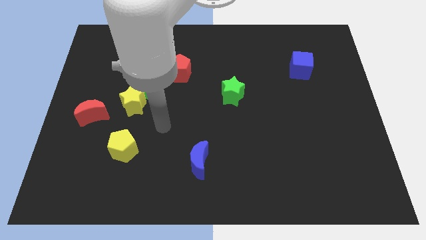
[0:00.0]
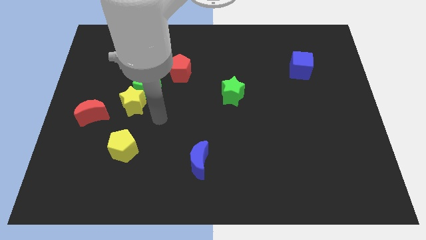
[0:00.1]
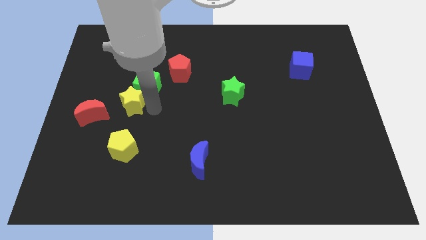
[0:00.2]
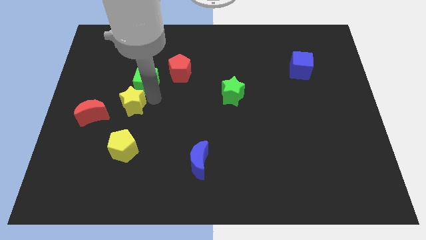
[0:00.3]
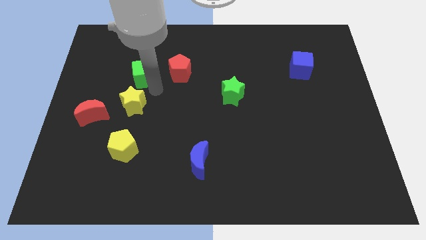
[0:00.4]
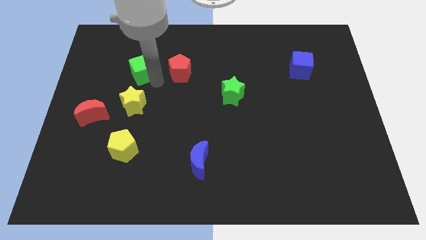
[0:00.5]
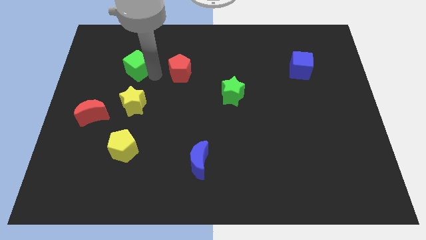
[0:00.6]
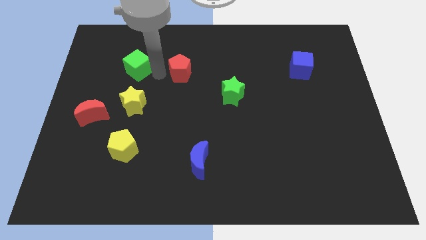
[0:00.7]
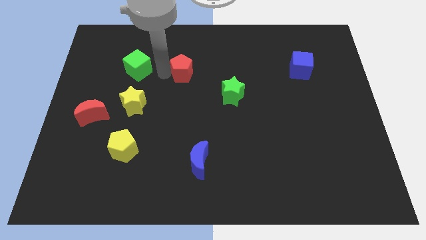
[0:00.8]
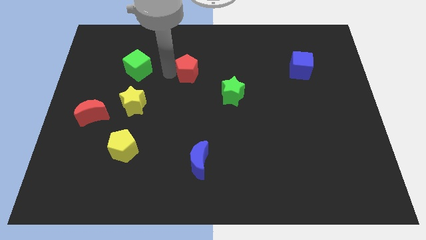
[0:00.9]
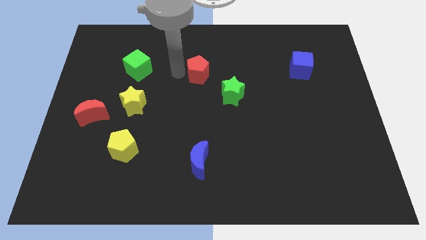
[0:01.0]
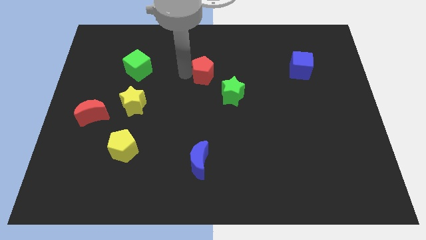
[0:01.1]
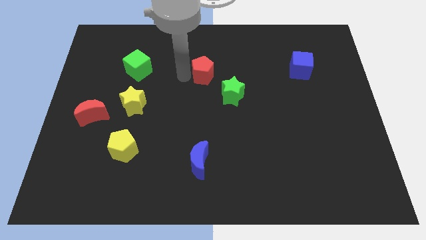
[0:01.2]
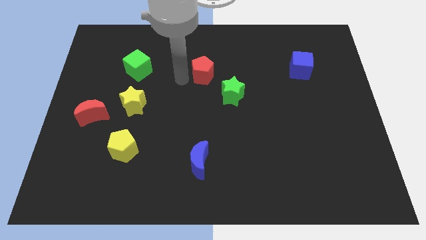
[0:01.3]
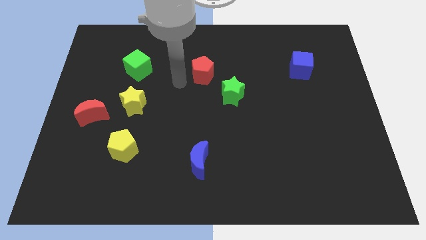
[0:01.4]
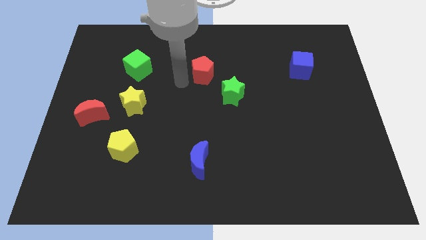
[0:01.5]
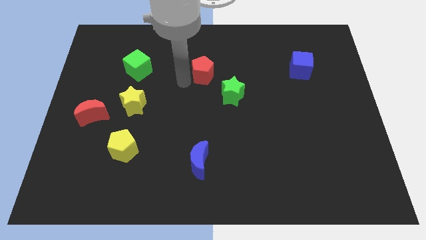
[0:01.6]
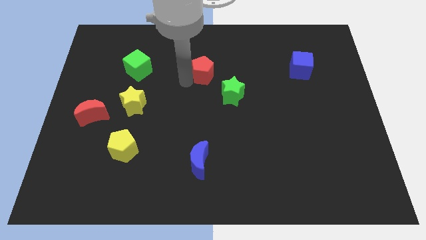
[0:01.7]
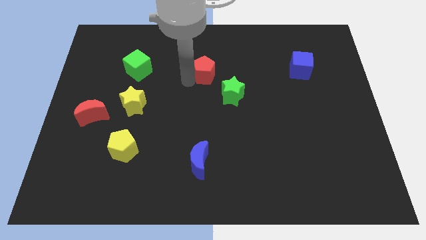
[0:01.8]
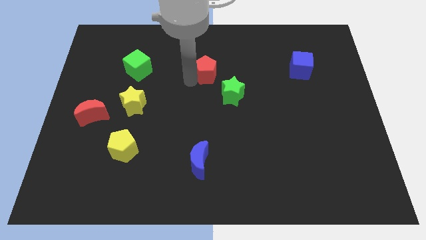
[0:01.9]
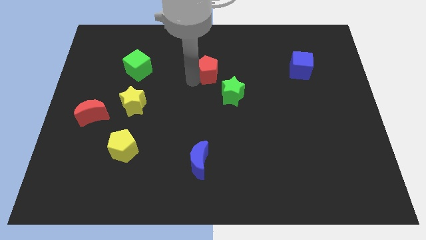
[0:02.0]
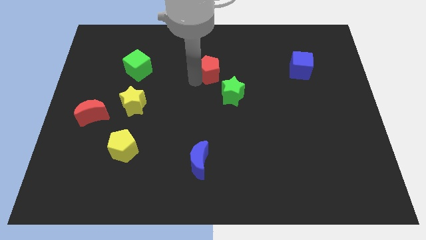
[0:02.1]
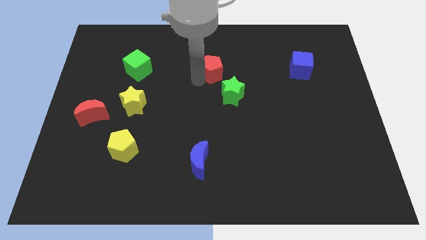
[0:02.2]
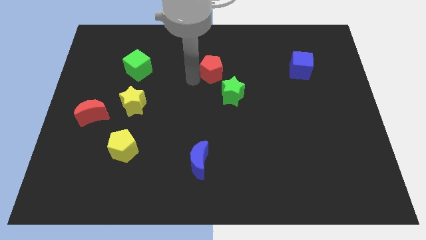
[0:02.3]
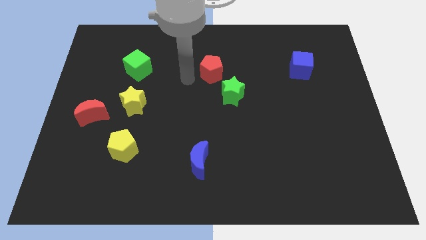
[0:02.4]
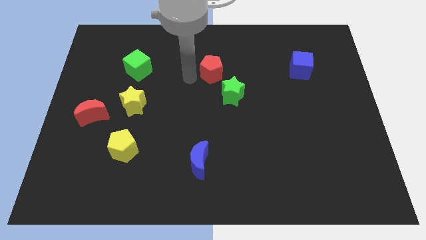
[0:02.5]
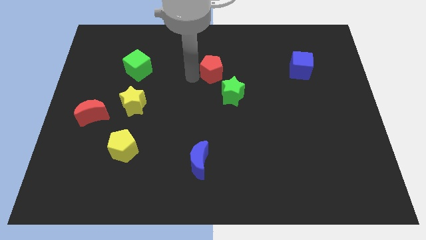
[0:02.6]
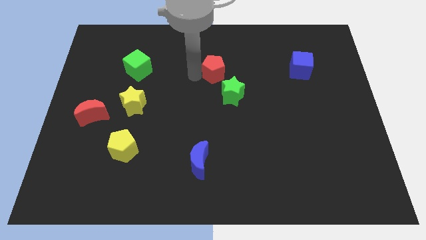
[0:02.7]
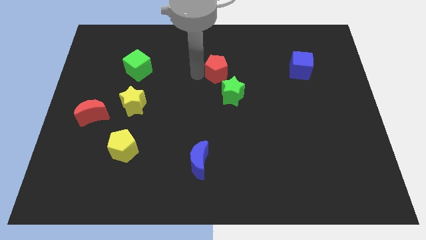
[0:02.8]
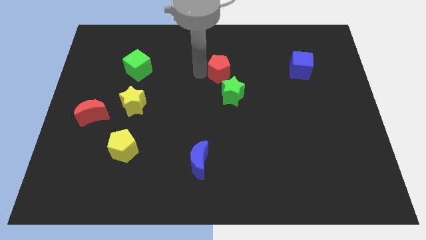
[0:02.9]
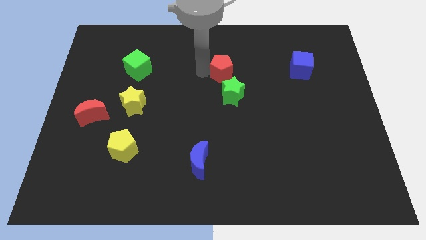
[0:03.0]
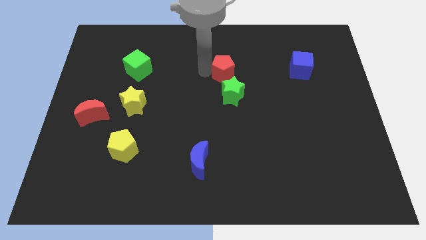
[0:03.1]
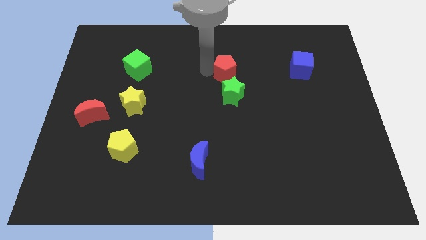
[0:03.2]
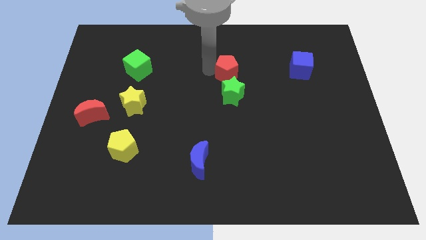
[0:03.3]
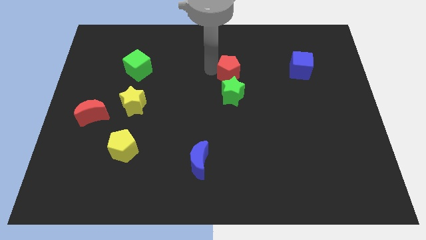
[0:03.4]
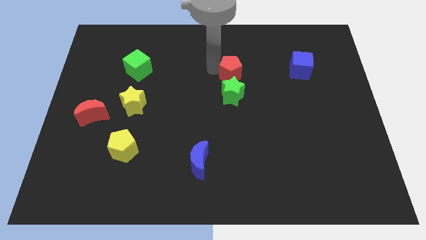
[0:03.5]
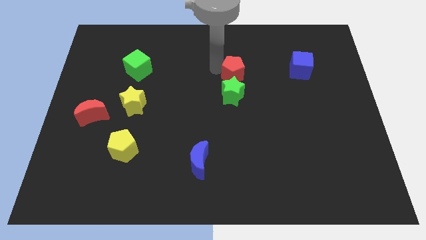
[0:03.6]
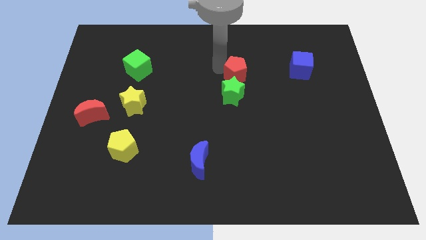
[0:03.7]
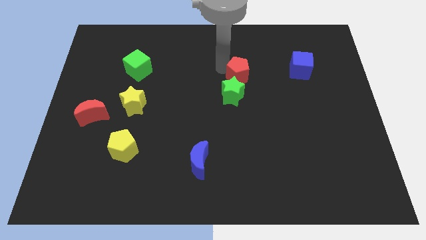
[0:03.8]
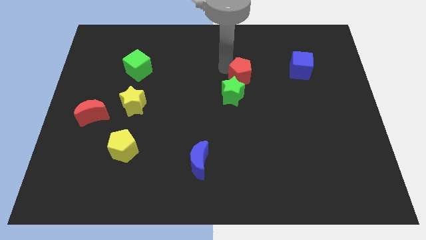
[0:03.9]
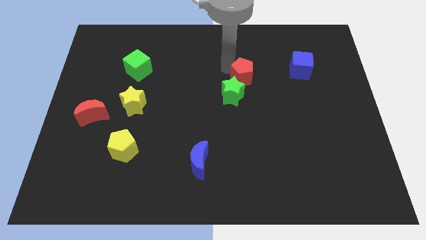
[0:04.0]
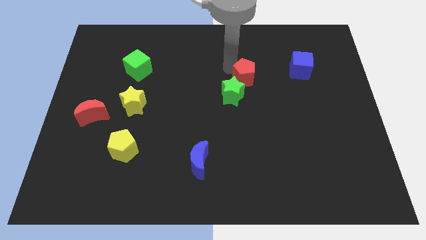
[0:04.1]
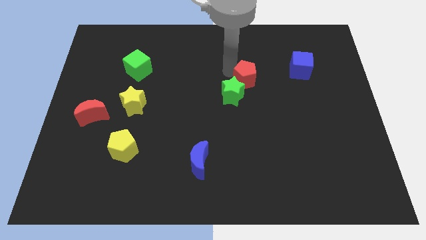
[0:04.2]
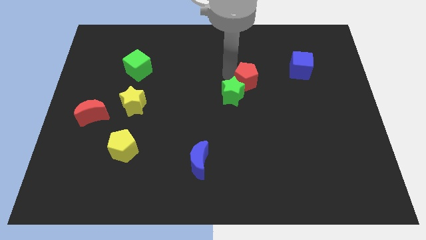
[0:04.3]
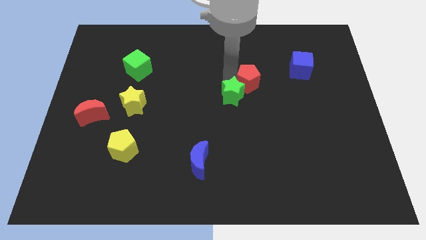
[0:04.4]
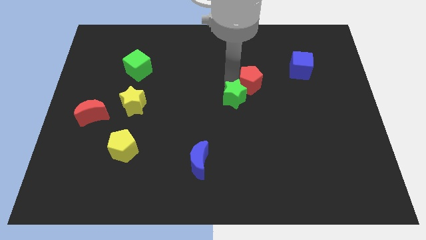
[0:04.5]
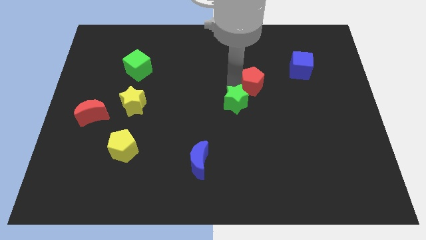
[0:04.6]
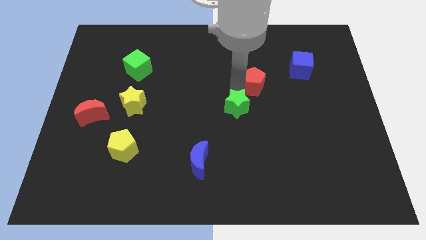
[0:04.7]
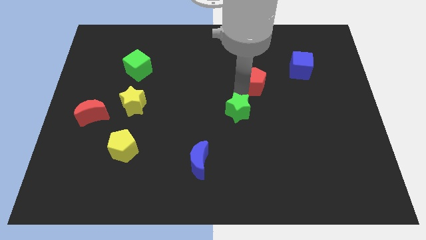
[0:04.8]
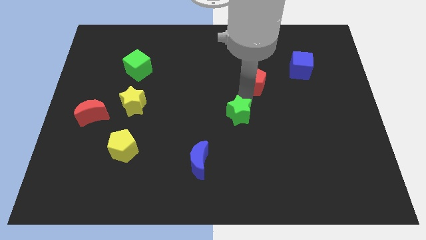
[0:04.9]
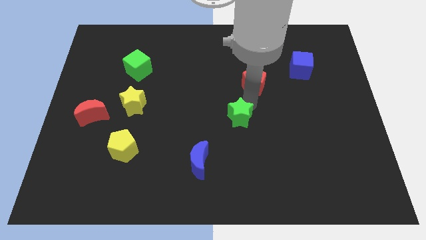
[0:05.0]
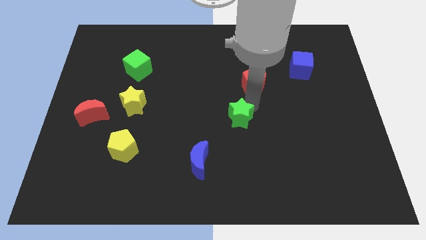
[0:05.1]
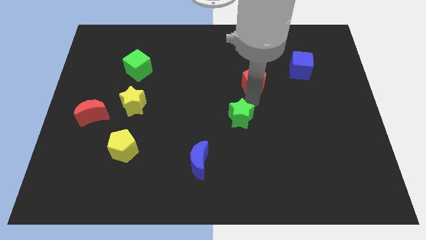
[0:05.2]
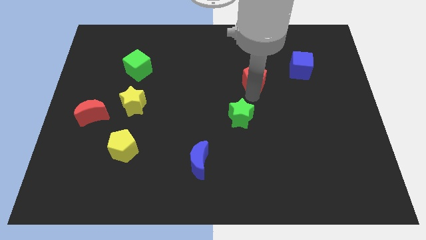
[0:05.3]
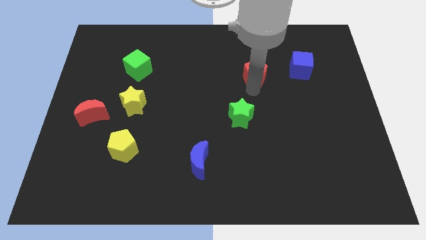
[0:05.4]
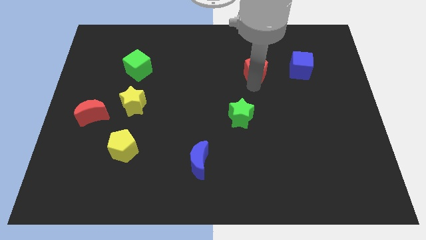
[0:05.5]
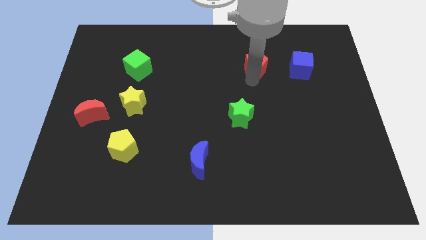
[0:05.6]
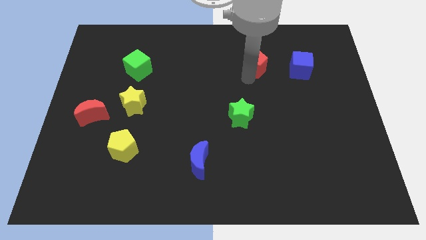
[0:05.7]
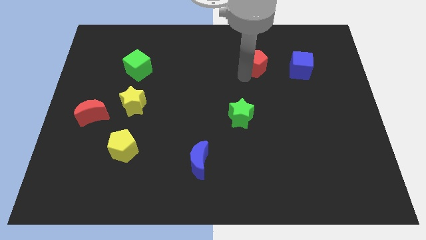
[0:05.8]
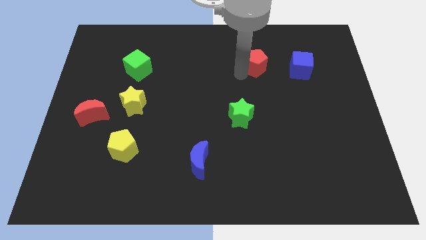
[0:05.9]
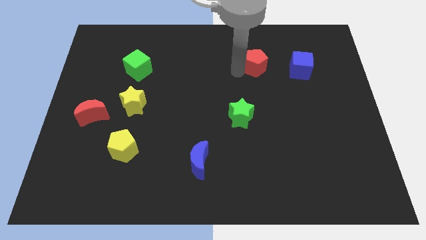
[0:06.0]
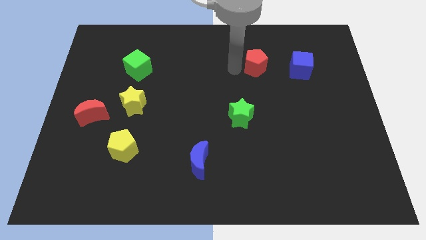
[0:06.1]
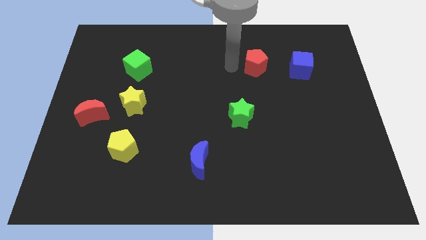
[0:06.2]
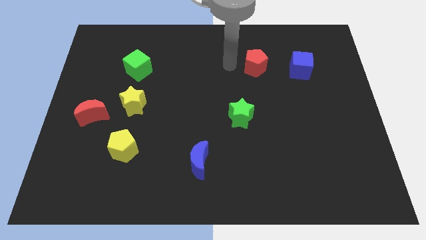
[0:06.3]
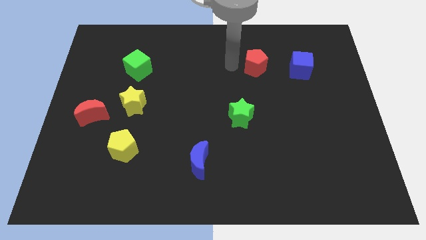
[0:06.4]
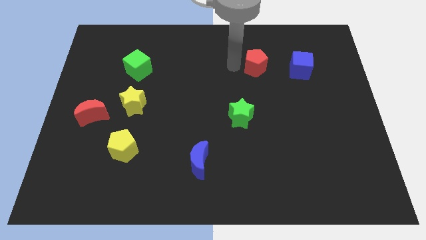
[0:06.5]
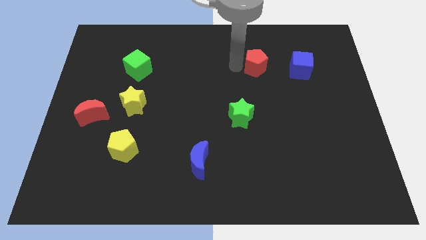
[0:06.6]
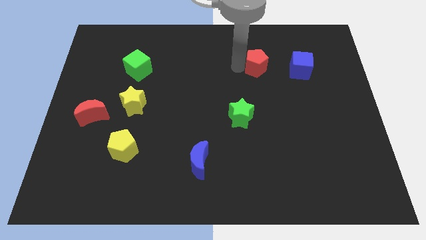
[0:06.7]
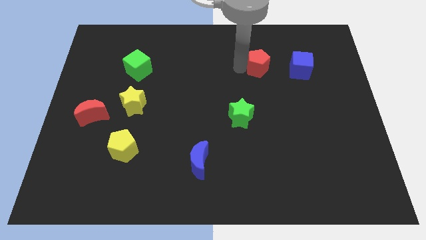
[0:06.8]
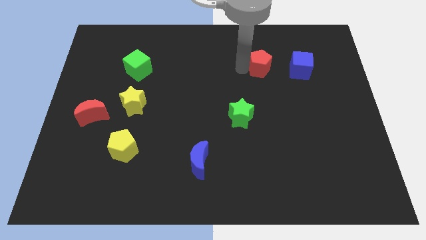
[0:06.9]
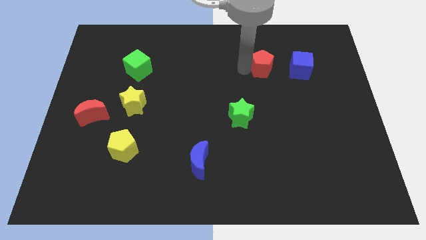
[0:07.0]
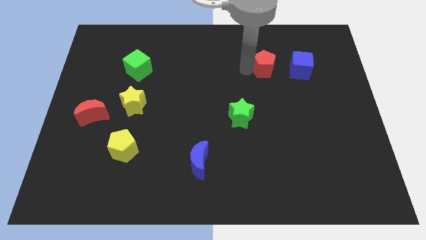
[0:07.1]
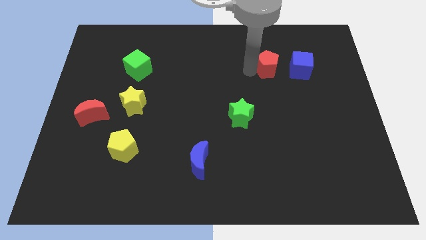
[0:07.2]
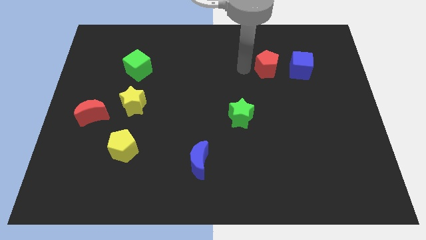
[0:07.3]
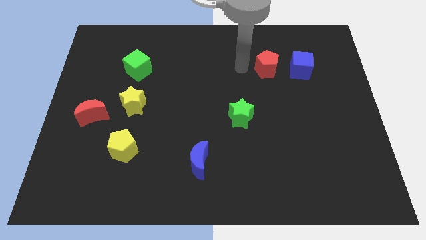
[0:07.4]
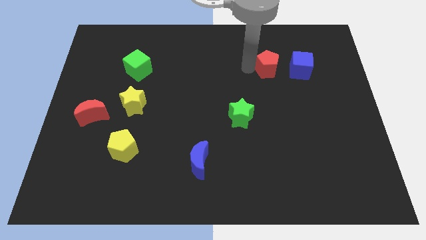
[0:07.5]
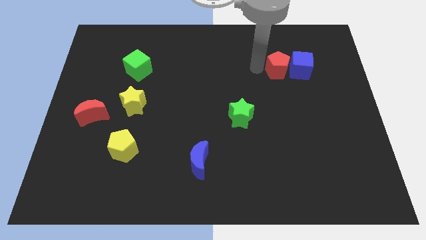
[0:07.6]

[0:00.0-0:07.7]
push the red pentagon to the blue cube

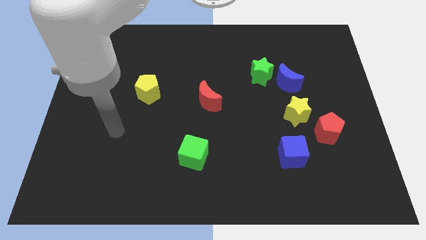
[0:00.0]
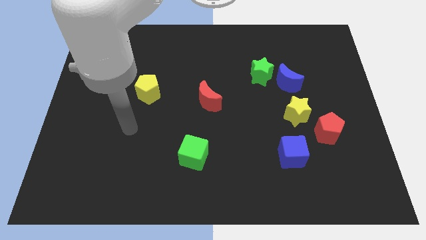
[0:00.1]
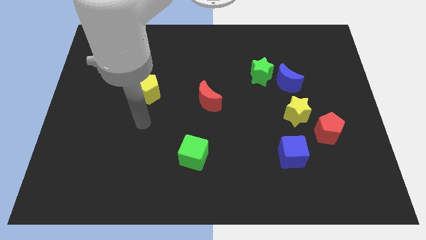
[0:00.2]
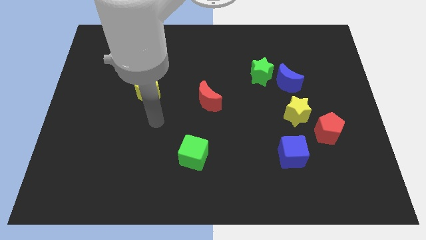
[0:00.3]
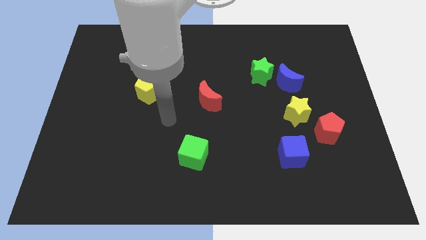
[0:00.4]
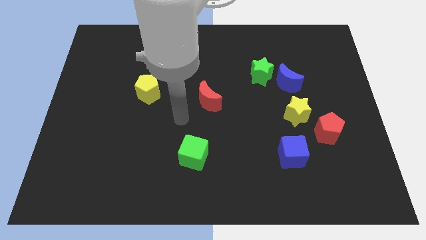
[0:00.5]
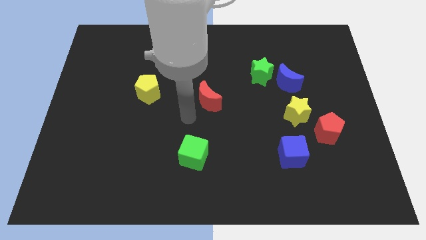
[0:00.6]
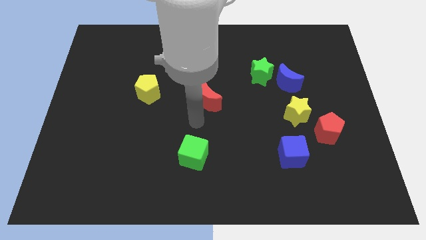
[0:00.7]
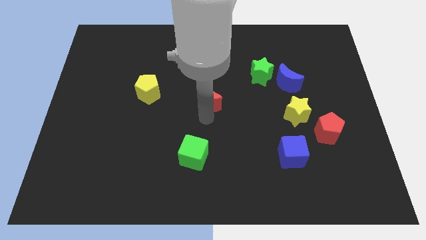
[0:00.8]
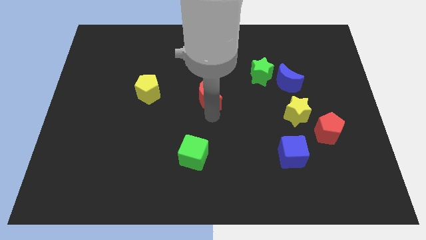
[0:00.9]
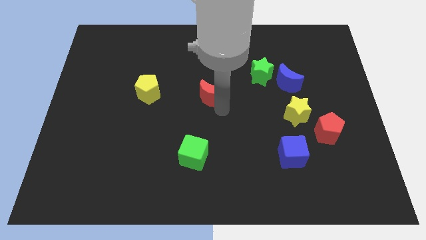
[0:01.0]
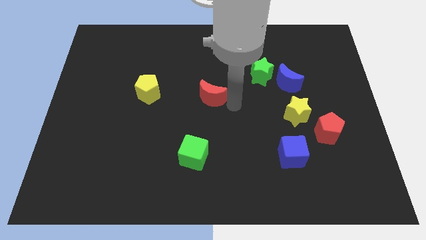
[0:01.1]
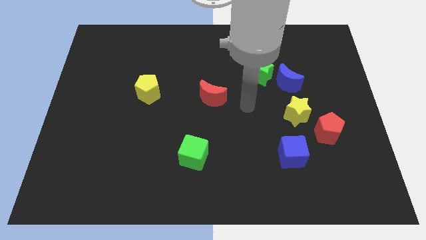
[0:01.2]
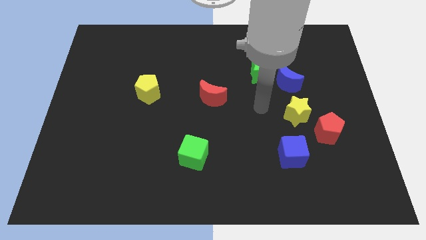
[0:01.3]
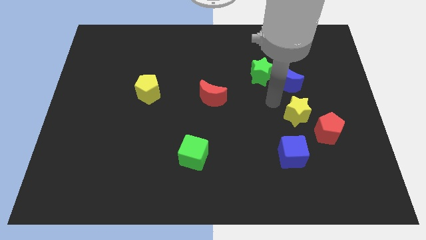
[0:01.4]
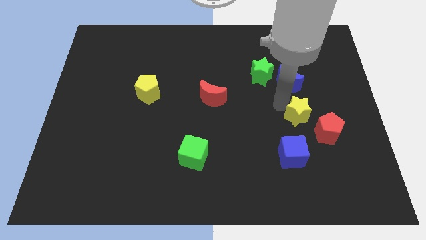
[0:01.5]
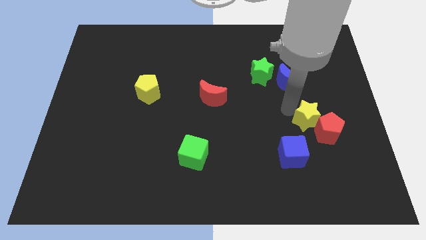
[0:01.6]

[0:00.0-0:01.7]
put the yellow star towards the red pentagon
